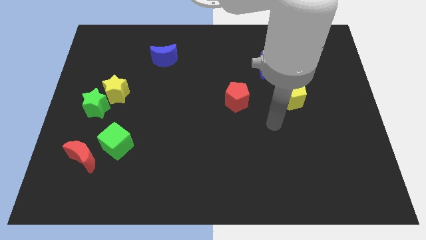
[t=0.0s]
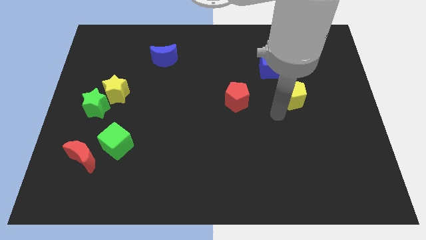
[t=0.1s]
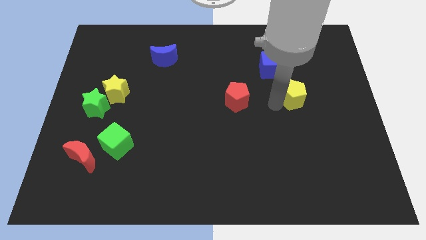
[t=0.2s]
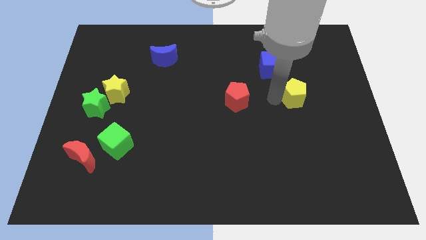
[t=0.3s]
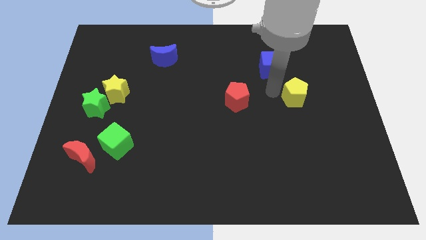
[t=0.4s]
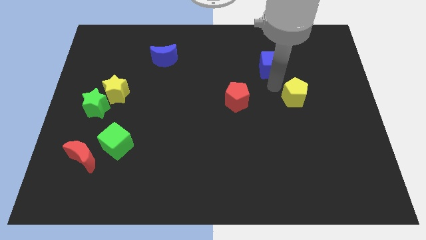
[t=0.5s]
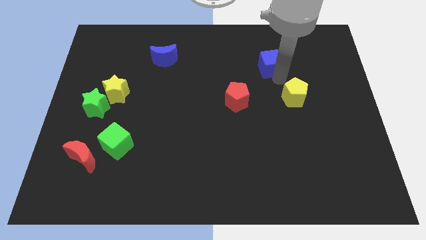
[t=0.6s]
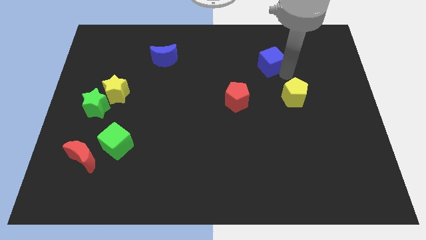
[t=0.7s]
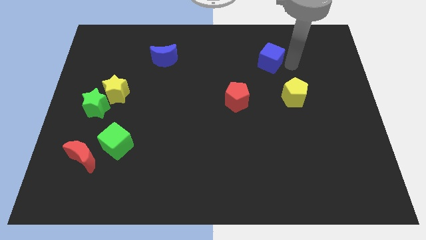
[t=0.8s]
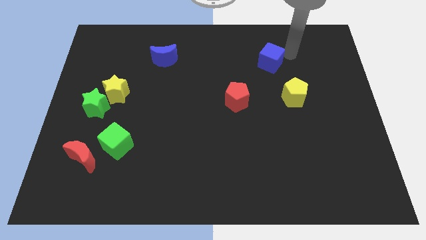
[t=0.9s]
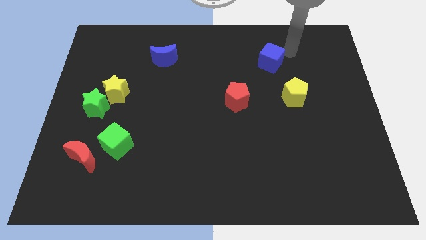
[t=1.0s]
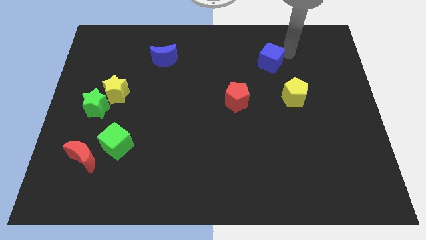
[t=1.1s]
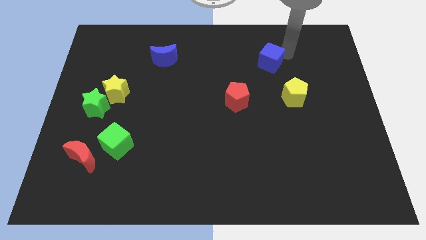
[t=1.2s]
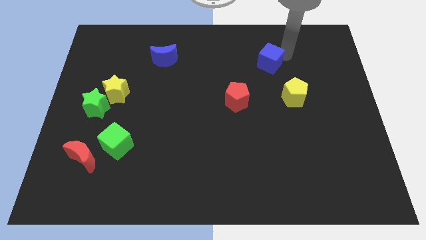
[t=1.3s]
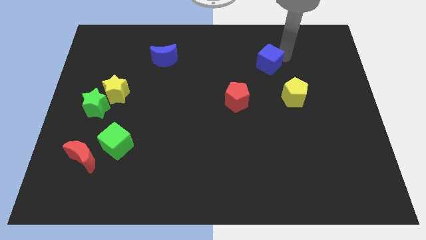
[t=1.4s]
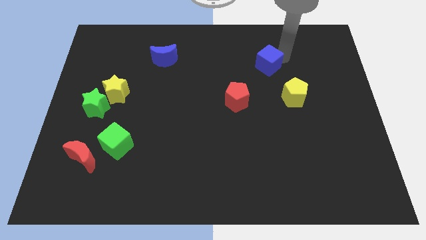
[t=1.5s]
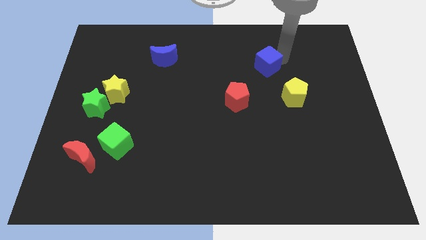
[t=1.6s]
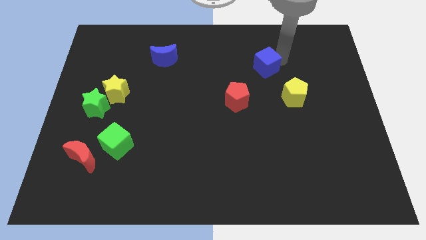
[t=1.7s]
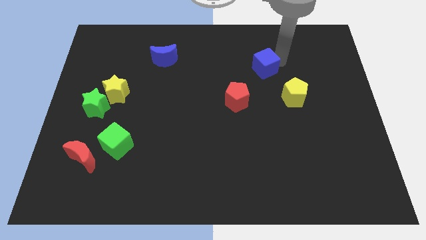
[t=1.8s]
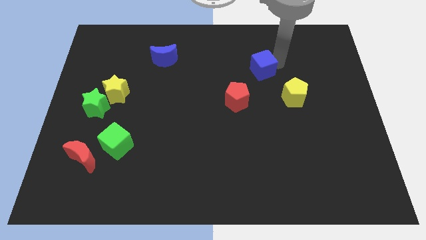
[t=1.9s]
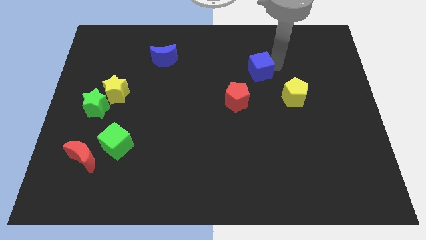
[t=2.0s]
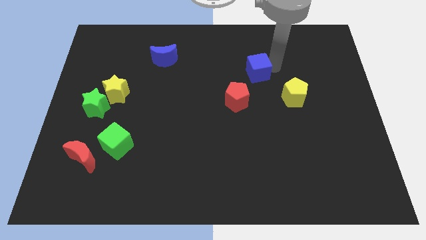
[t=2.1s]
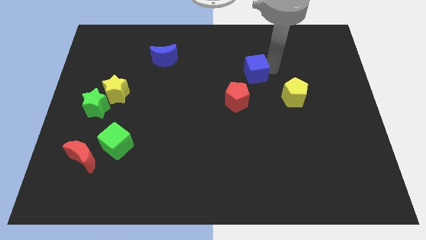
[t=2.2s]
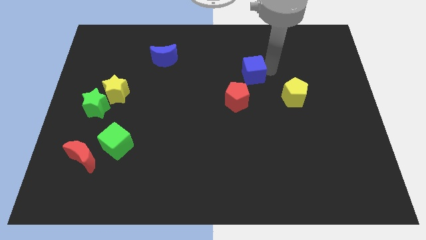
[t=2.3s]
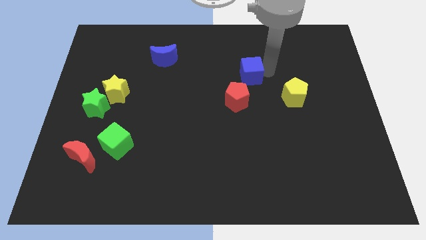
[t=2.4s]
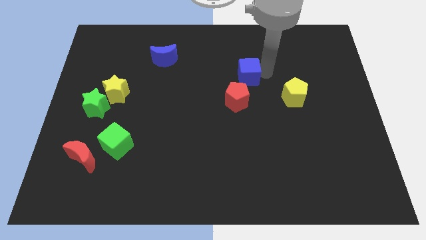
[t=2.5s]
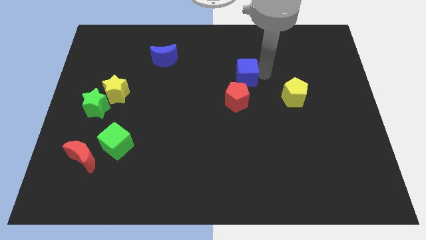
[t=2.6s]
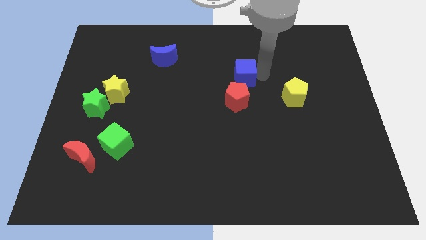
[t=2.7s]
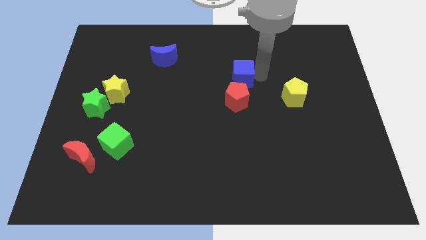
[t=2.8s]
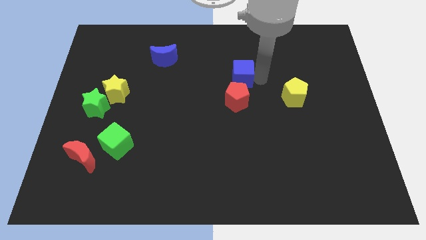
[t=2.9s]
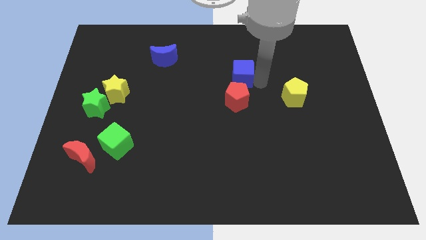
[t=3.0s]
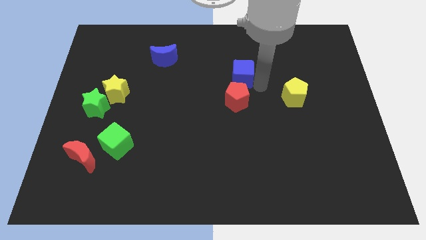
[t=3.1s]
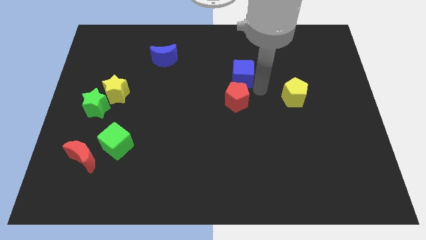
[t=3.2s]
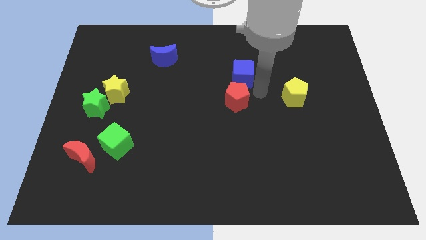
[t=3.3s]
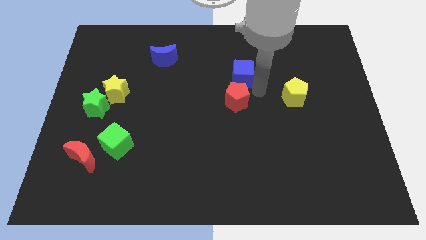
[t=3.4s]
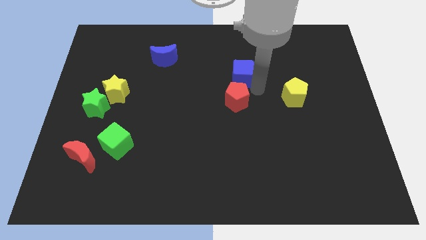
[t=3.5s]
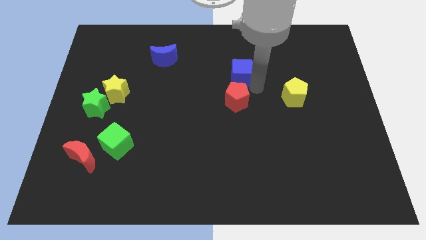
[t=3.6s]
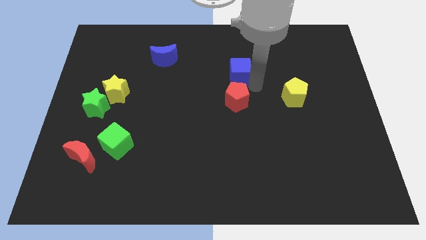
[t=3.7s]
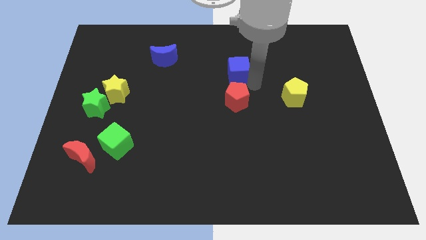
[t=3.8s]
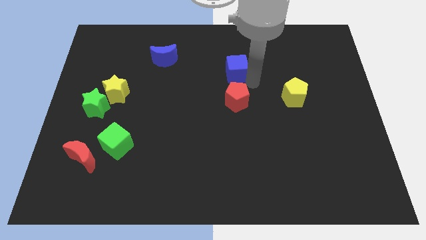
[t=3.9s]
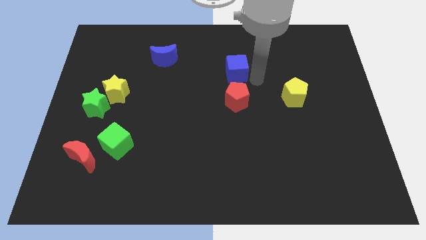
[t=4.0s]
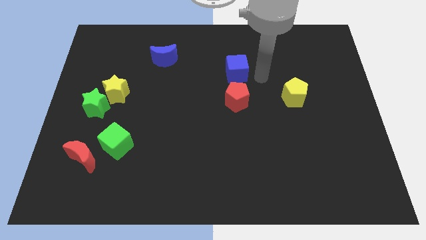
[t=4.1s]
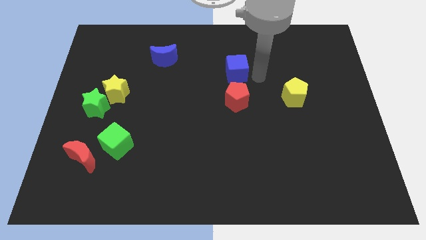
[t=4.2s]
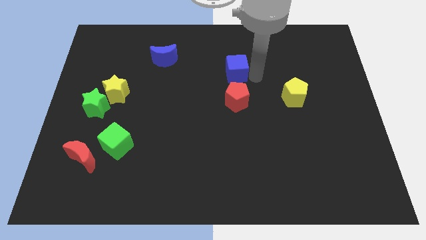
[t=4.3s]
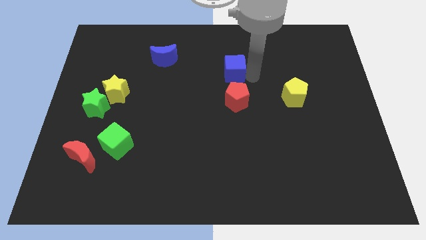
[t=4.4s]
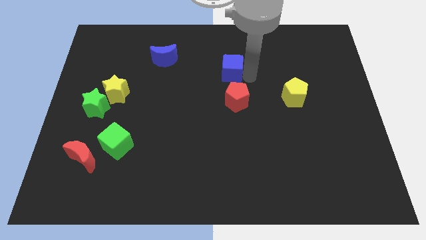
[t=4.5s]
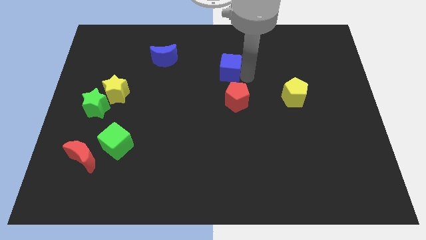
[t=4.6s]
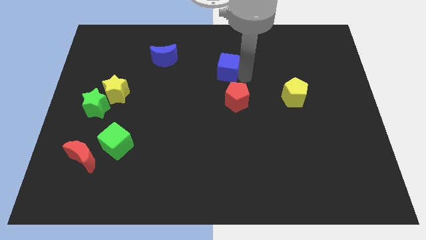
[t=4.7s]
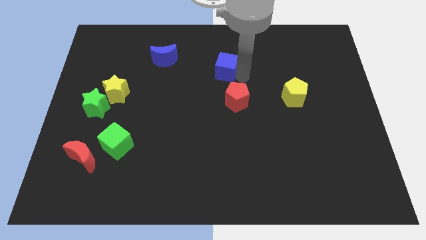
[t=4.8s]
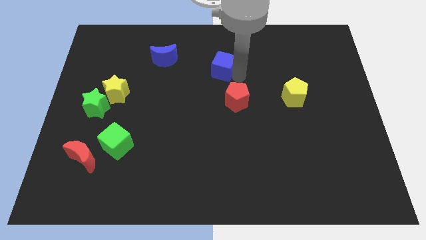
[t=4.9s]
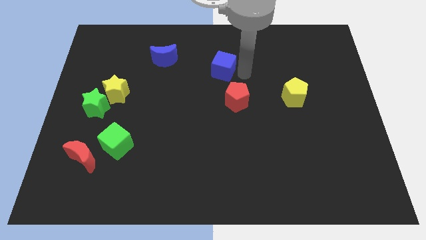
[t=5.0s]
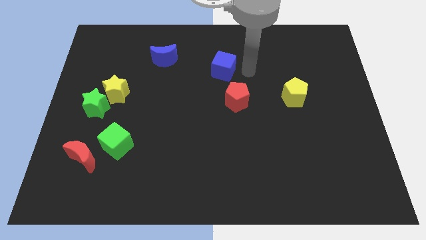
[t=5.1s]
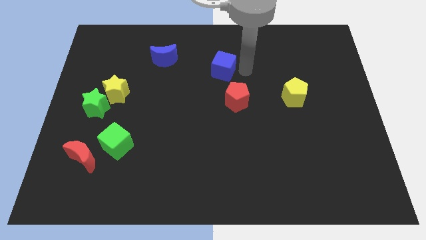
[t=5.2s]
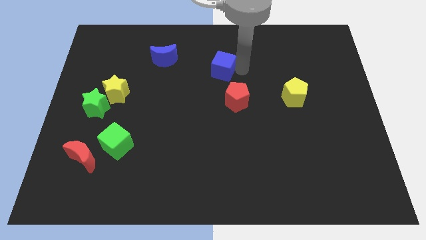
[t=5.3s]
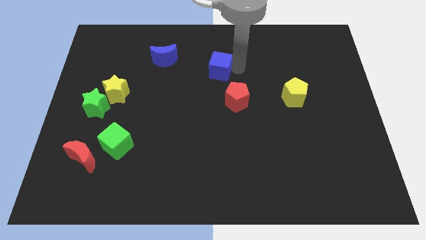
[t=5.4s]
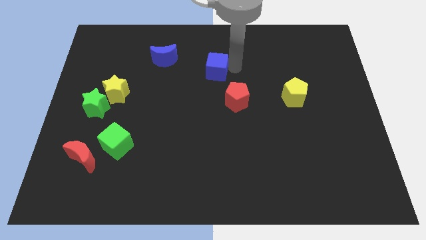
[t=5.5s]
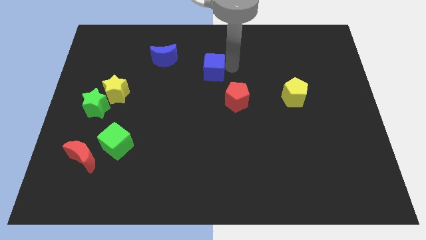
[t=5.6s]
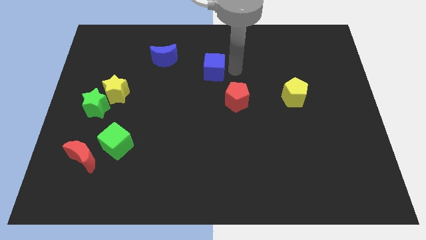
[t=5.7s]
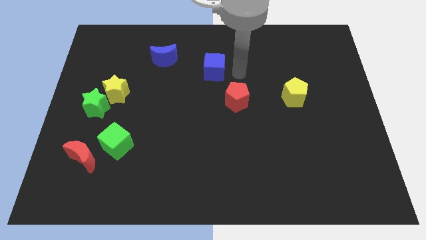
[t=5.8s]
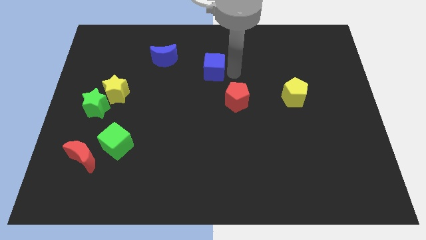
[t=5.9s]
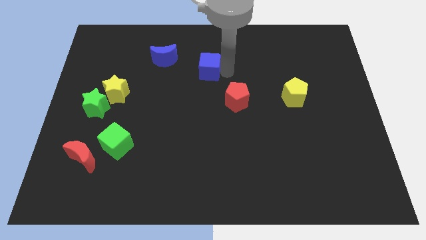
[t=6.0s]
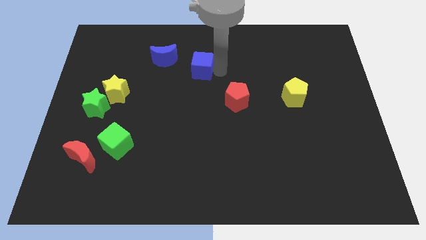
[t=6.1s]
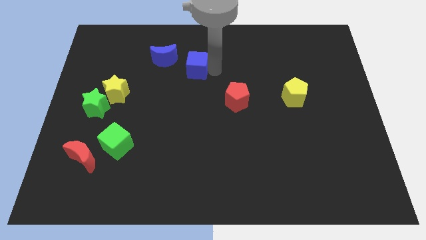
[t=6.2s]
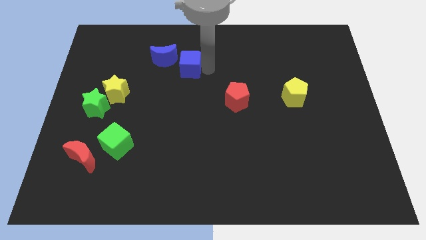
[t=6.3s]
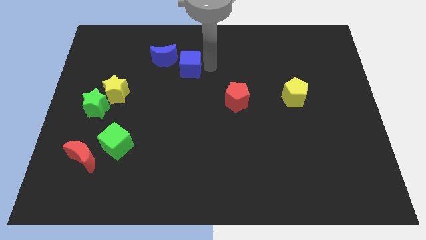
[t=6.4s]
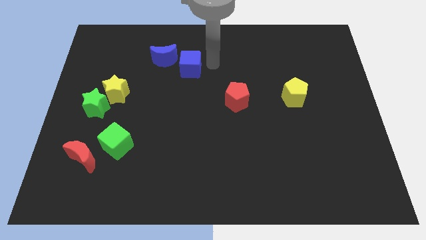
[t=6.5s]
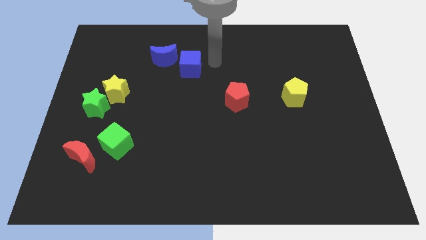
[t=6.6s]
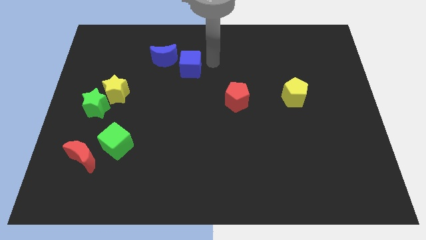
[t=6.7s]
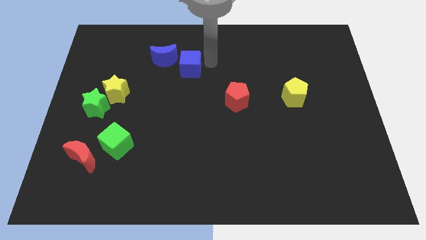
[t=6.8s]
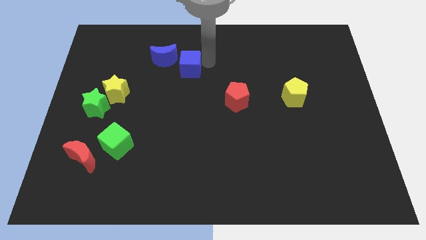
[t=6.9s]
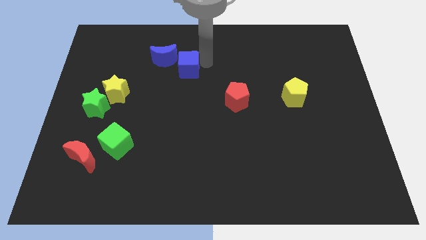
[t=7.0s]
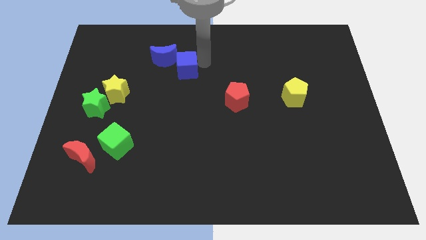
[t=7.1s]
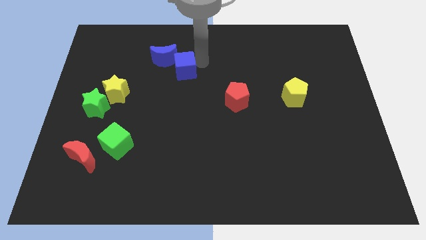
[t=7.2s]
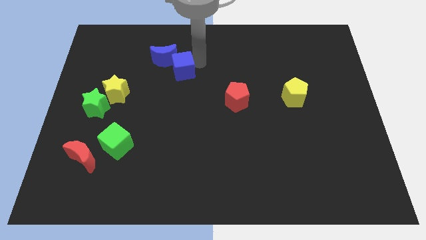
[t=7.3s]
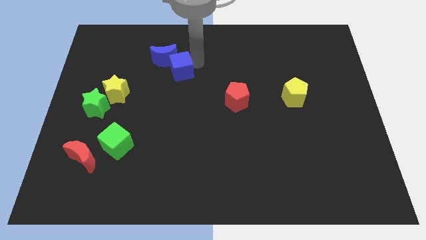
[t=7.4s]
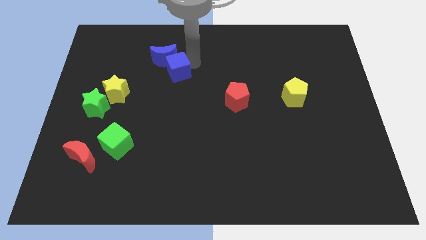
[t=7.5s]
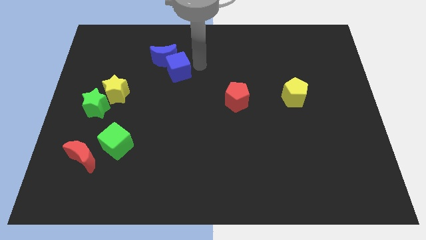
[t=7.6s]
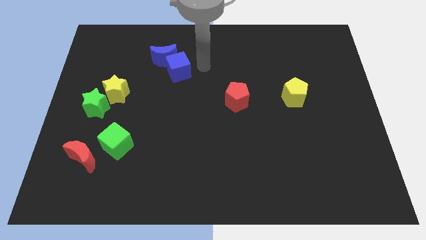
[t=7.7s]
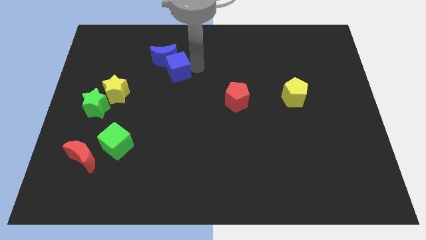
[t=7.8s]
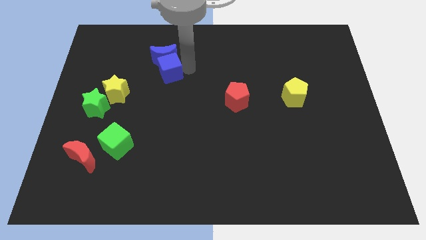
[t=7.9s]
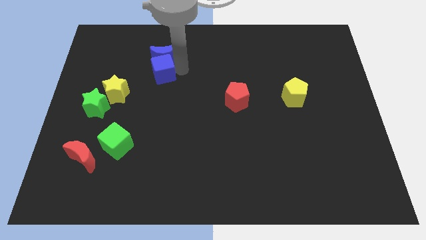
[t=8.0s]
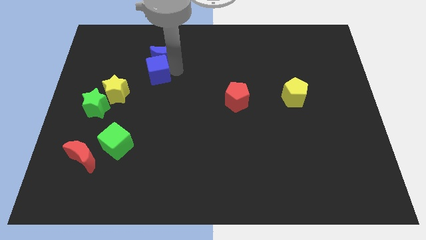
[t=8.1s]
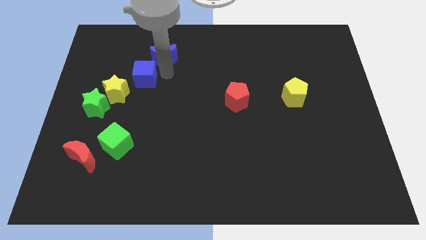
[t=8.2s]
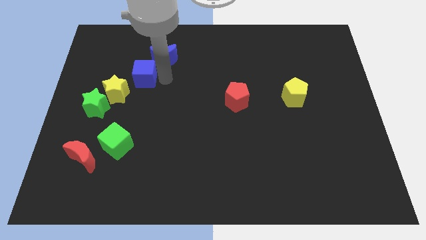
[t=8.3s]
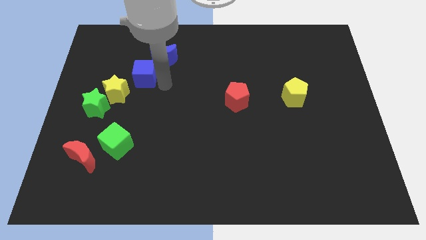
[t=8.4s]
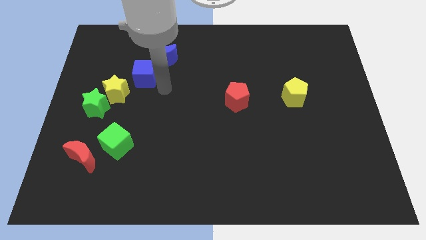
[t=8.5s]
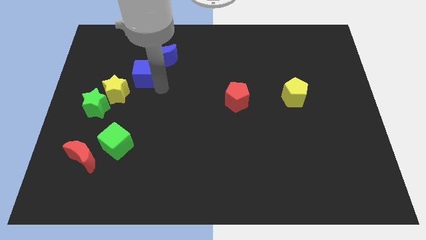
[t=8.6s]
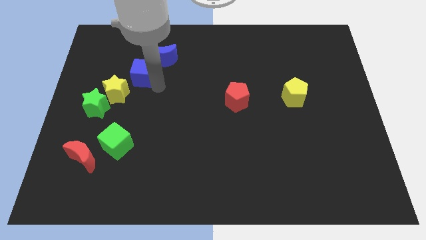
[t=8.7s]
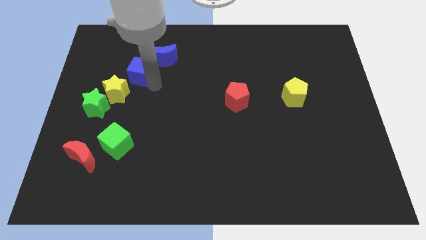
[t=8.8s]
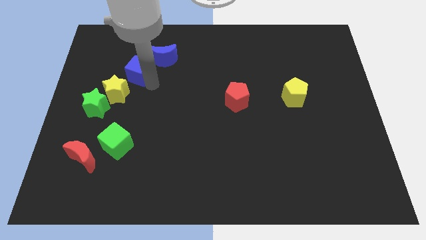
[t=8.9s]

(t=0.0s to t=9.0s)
push the blue cube to the top of the yellow star
